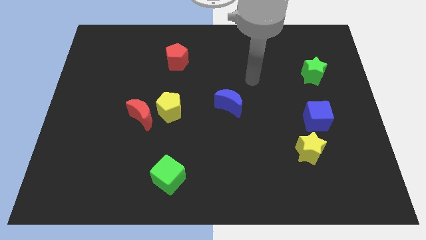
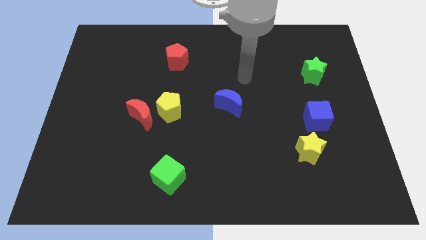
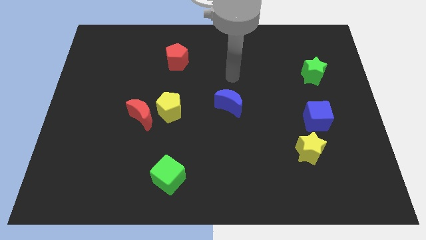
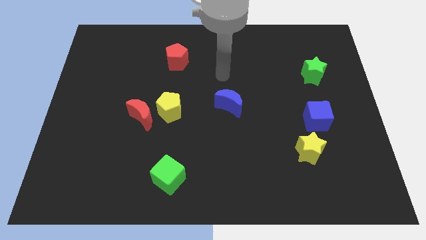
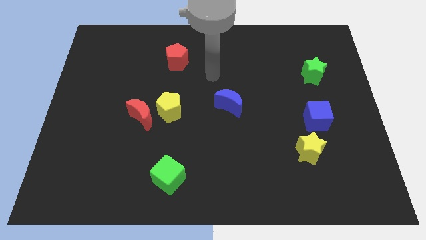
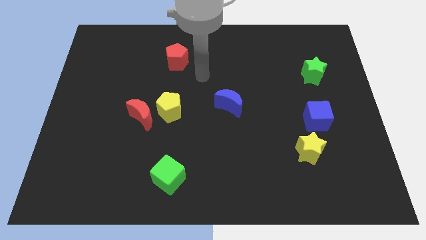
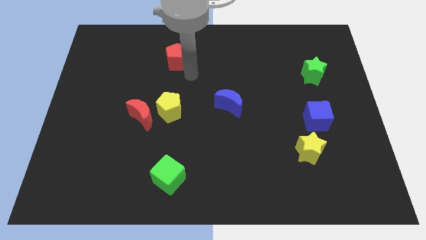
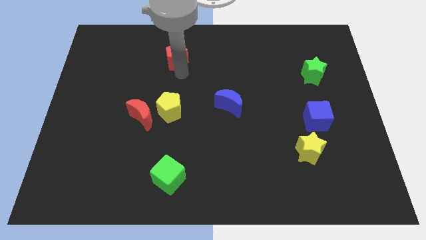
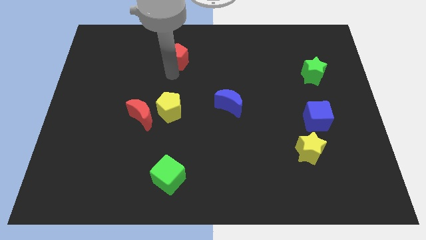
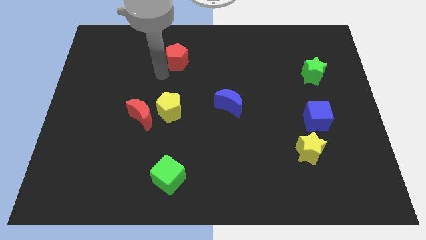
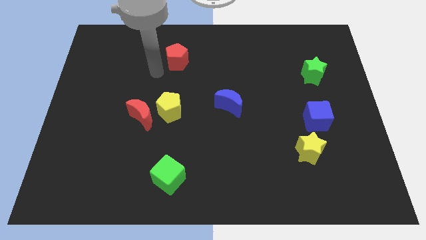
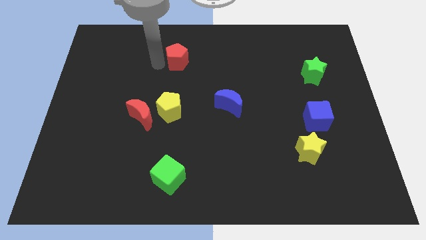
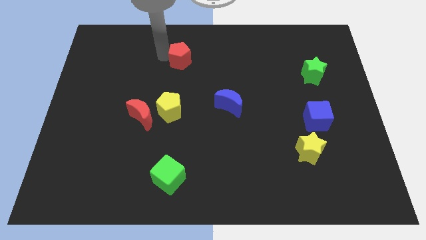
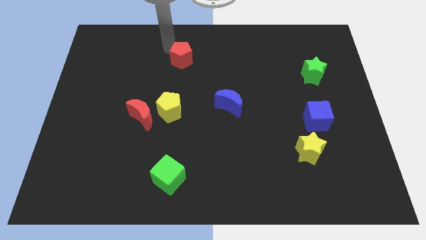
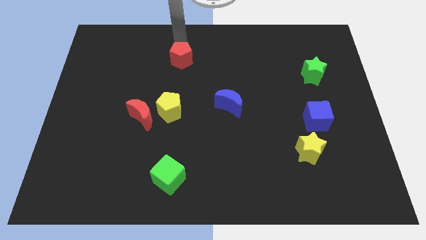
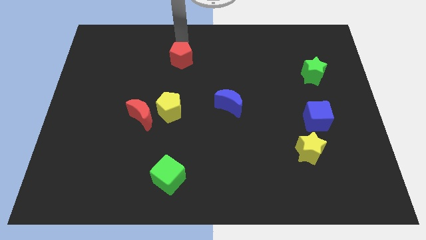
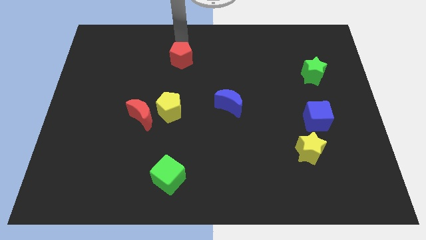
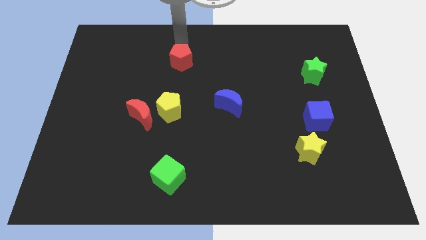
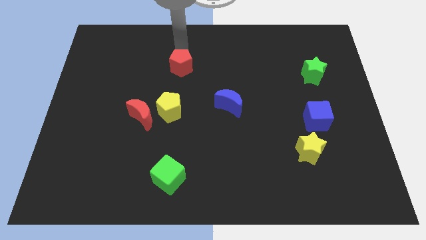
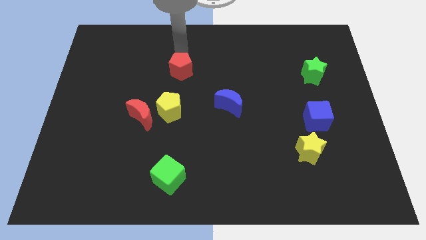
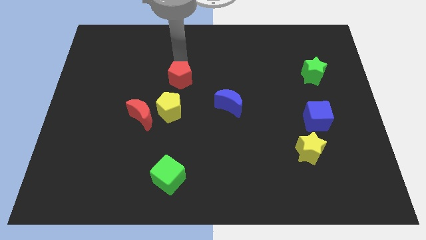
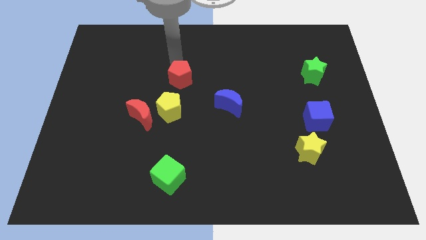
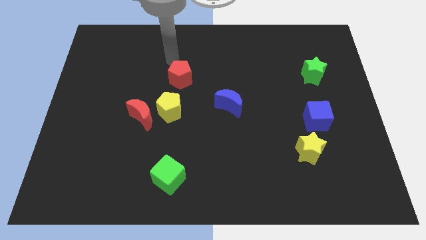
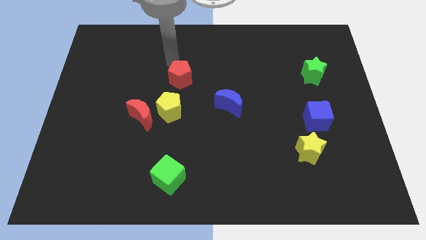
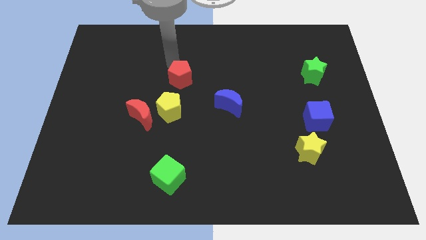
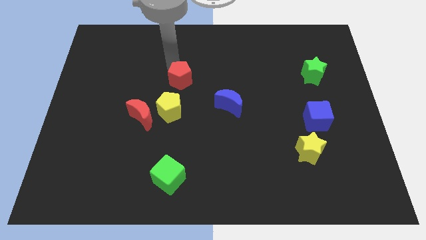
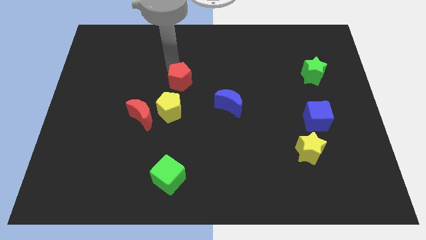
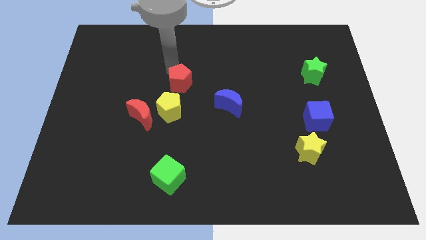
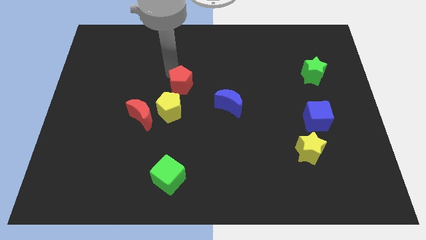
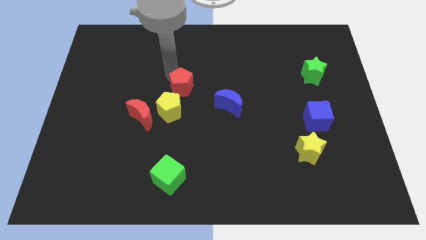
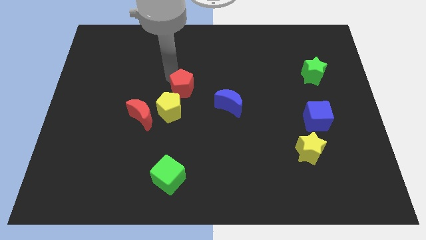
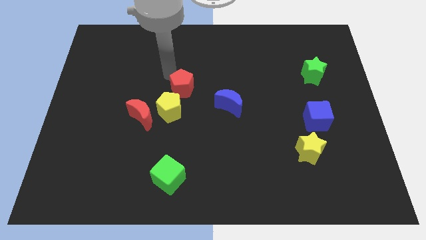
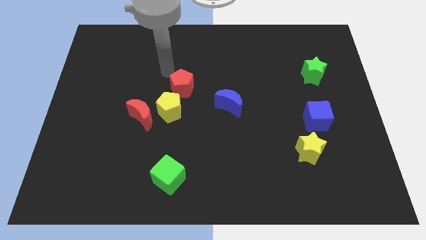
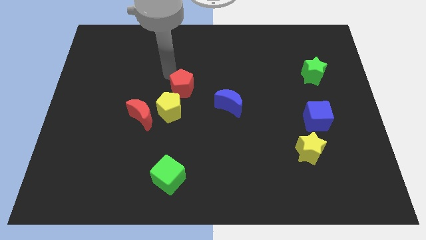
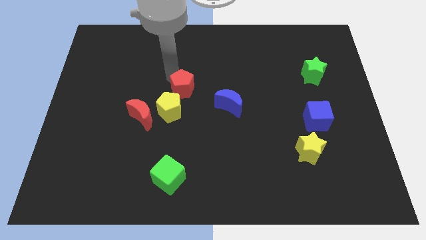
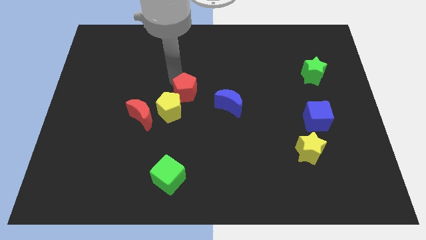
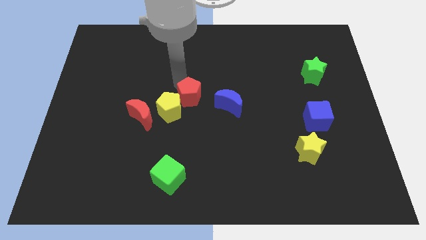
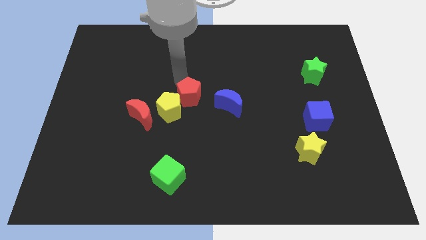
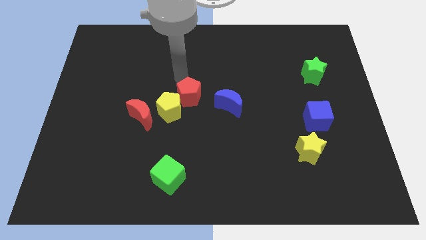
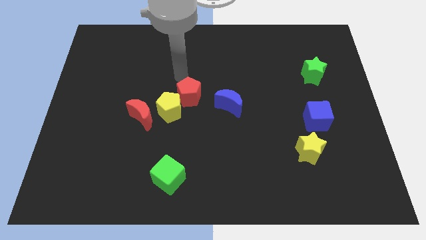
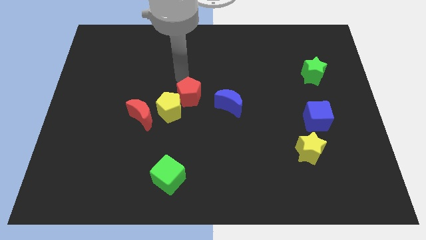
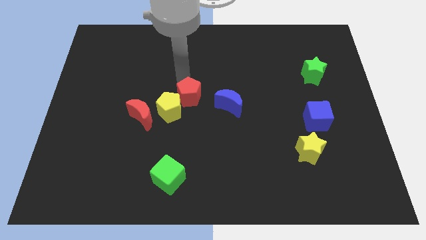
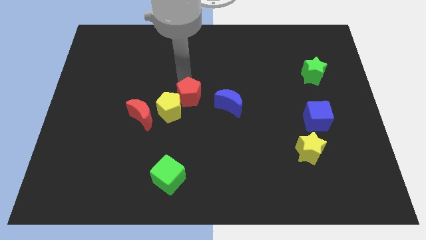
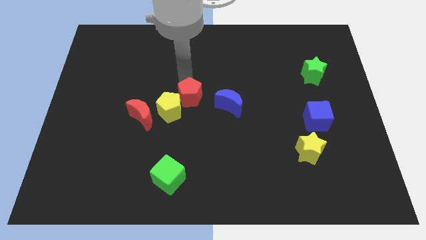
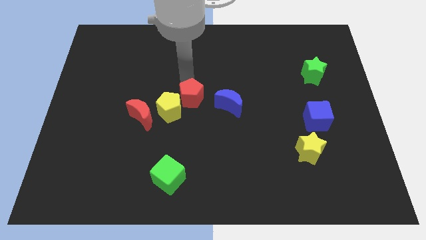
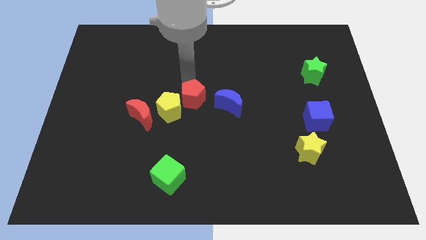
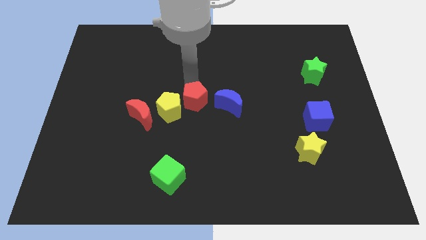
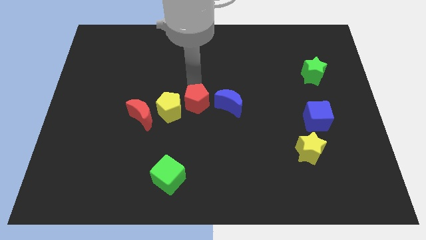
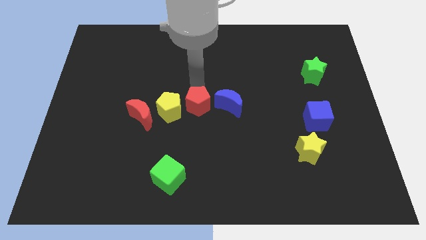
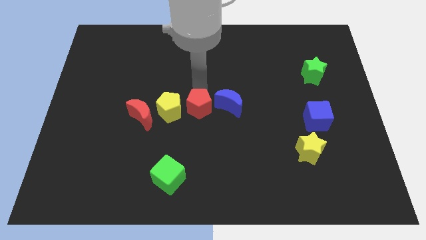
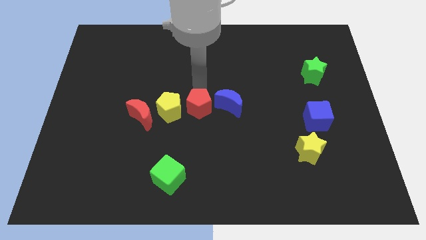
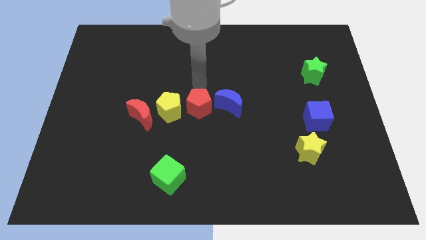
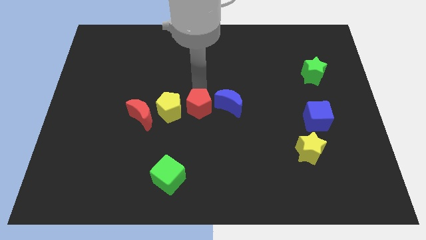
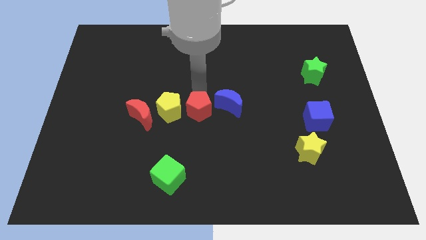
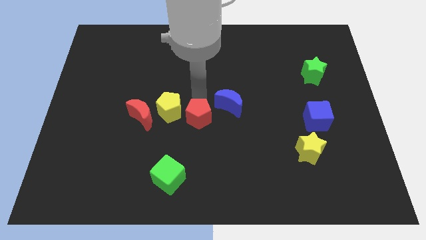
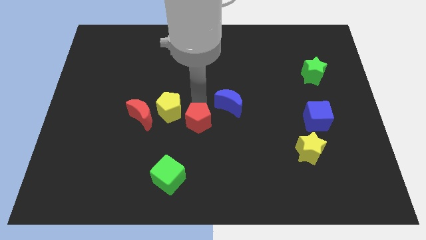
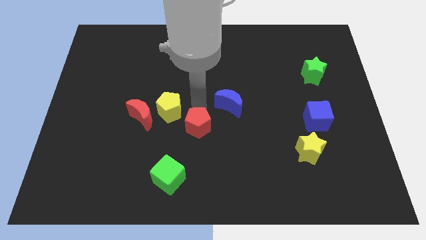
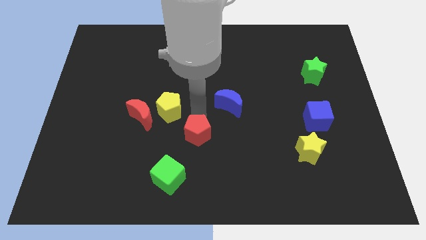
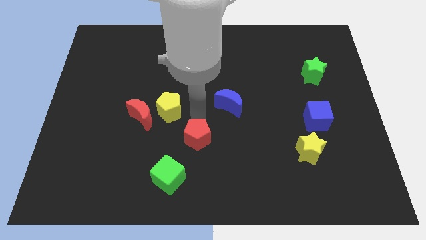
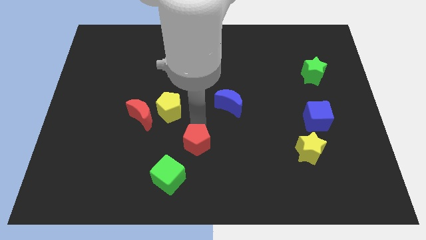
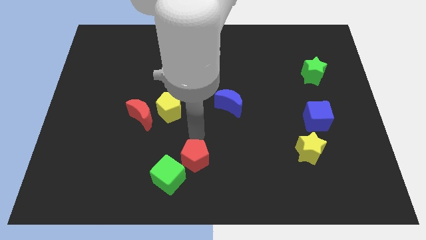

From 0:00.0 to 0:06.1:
put the red pentagon to the bottom

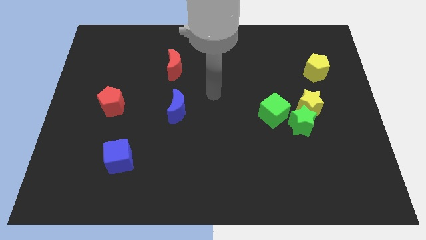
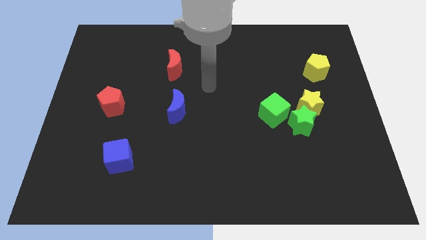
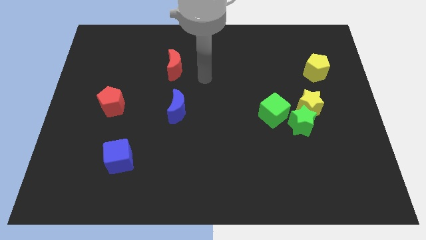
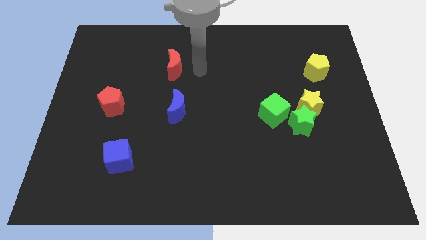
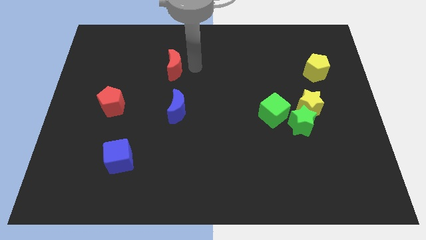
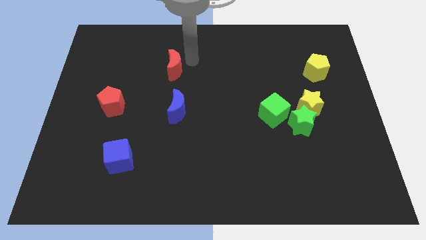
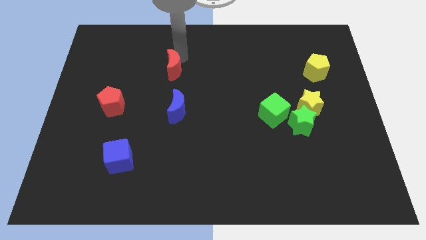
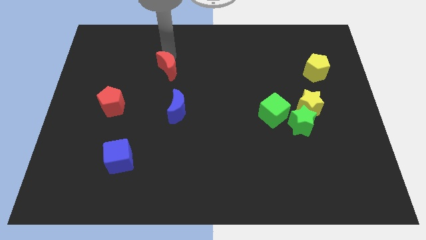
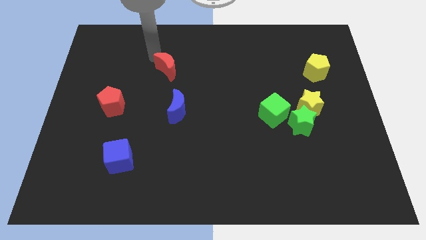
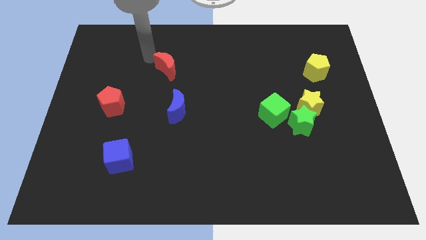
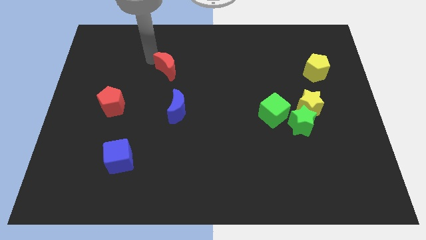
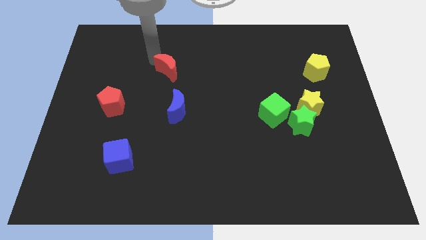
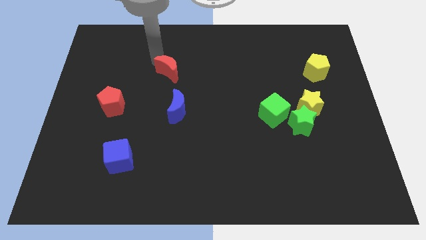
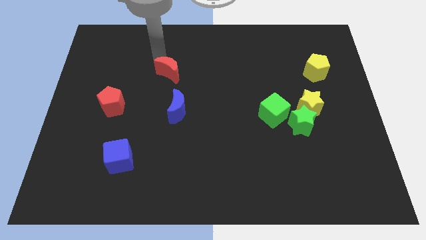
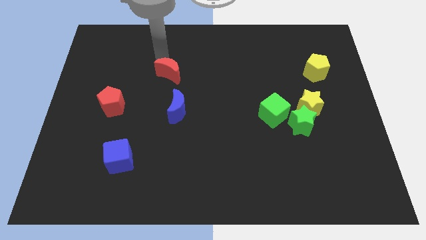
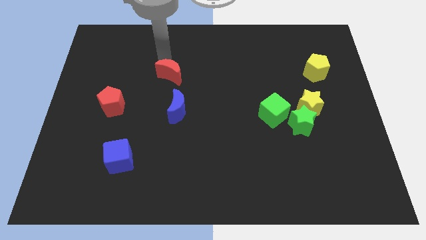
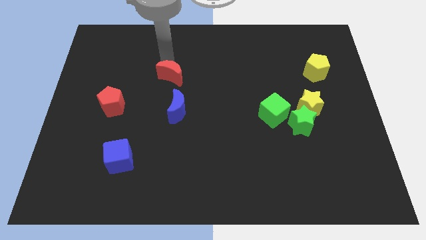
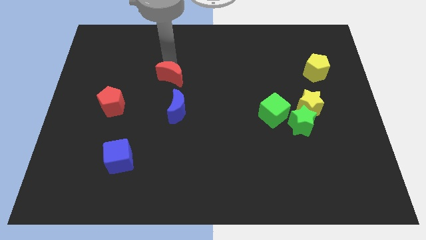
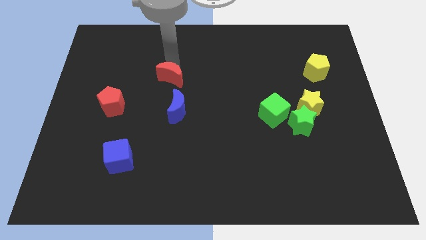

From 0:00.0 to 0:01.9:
push the red moon to the middle of the board
